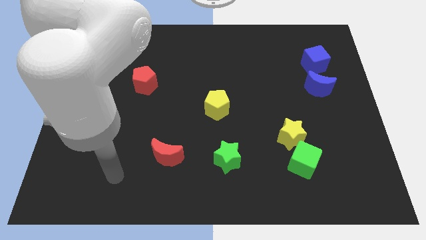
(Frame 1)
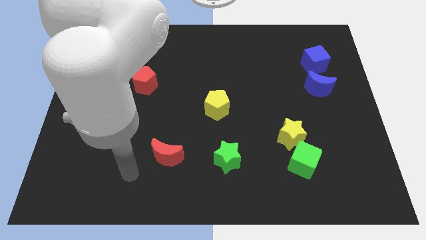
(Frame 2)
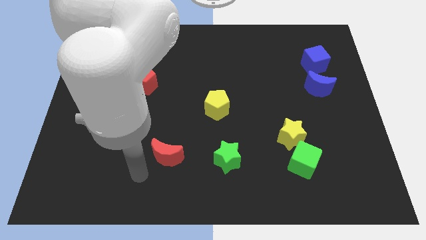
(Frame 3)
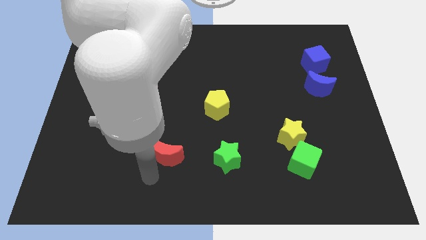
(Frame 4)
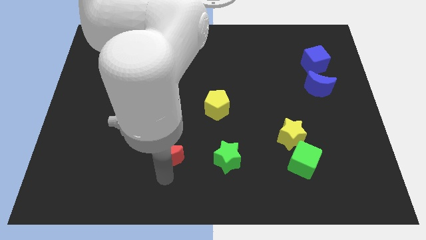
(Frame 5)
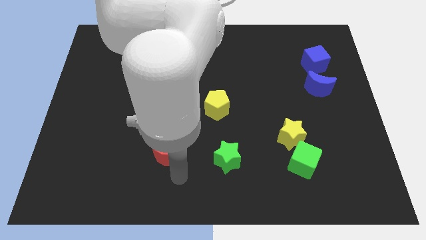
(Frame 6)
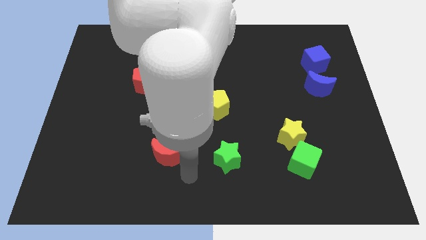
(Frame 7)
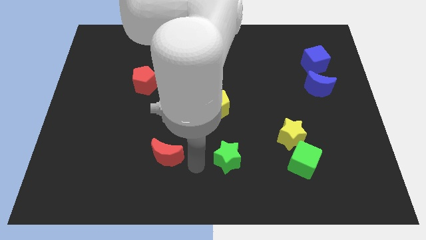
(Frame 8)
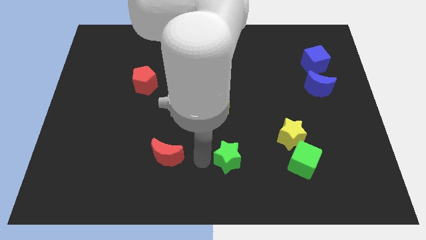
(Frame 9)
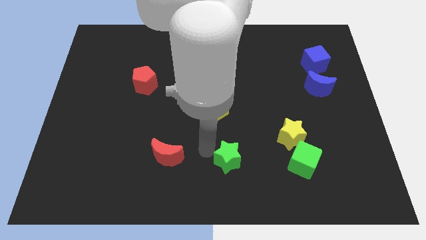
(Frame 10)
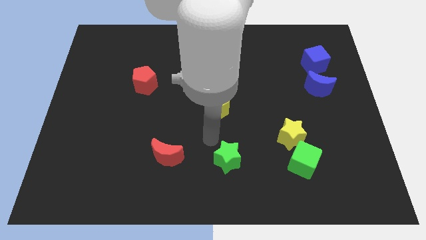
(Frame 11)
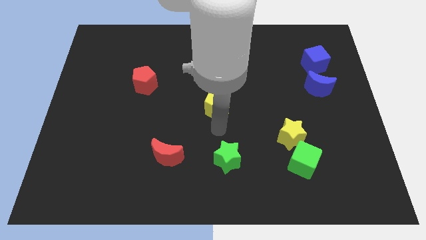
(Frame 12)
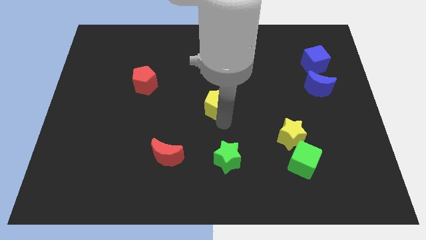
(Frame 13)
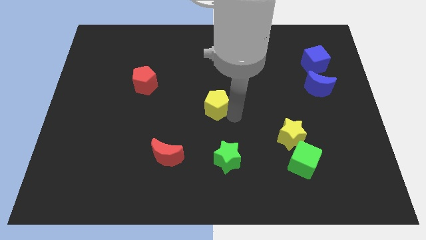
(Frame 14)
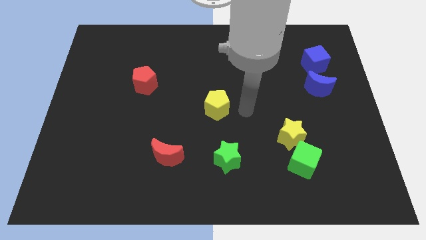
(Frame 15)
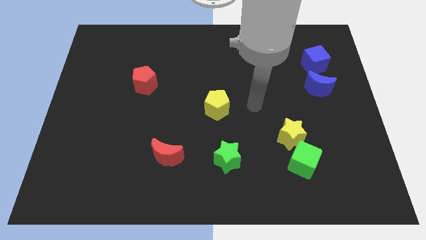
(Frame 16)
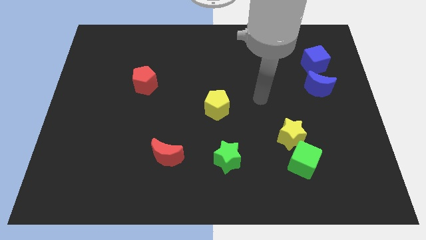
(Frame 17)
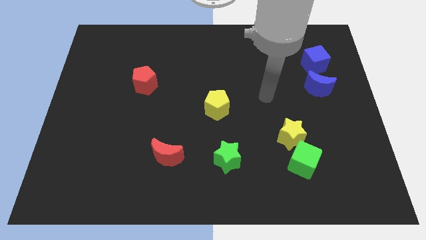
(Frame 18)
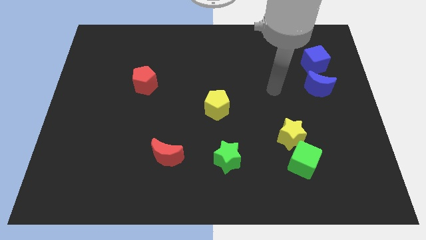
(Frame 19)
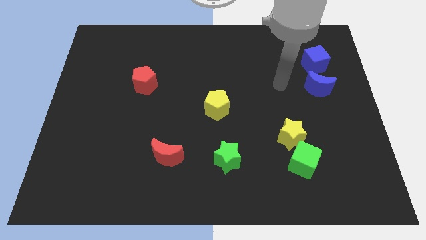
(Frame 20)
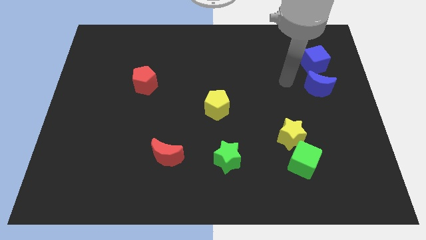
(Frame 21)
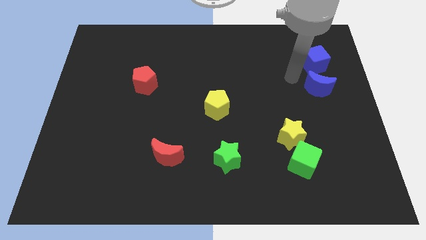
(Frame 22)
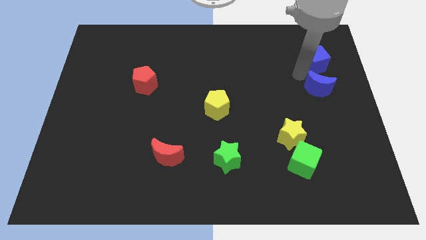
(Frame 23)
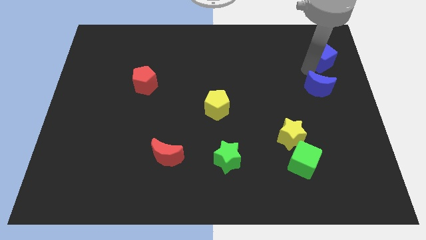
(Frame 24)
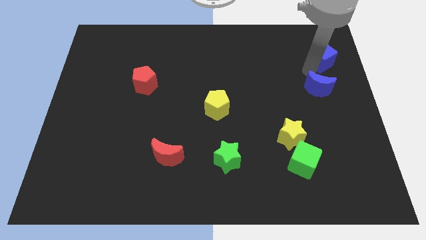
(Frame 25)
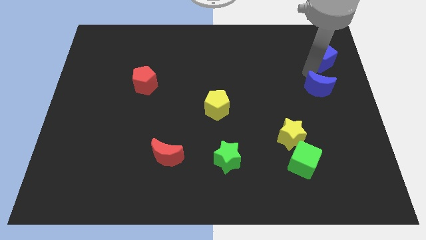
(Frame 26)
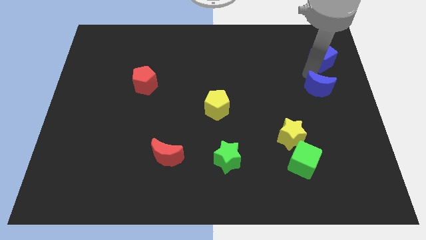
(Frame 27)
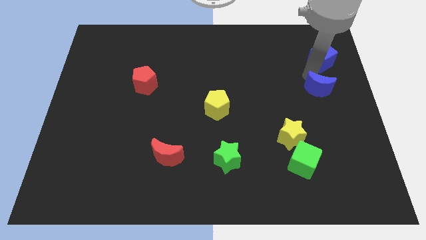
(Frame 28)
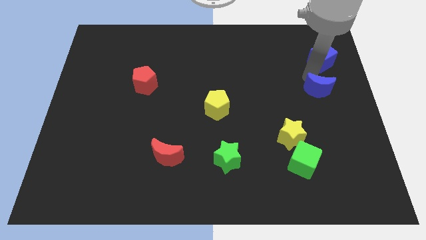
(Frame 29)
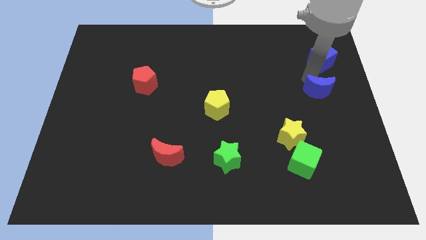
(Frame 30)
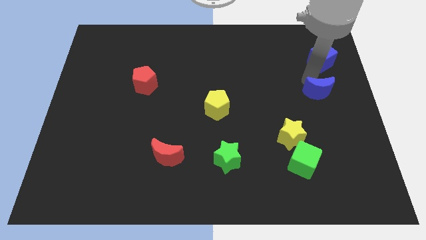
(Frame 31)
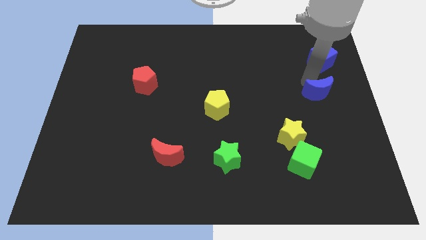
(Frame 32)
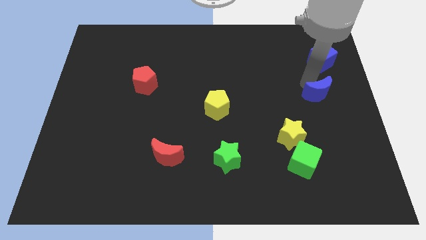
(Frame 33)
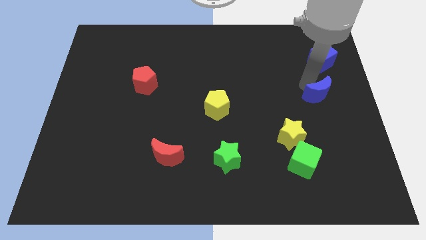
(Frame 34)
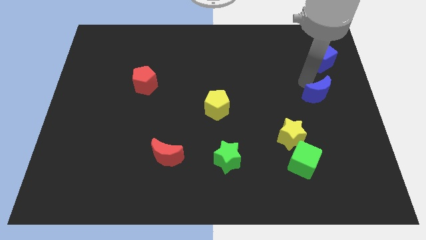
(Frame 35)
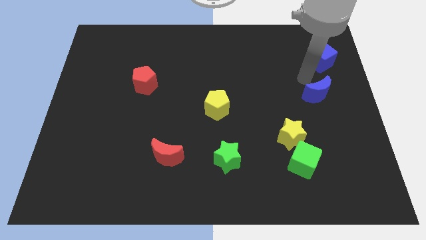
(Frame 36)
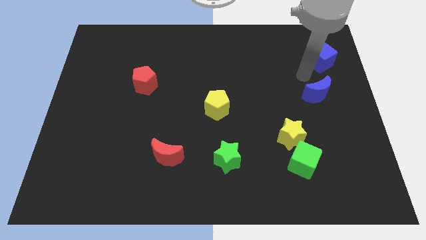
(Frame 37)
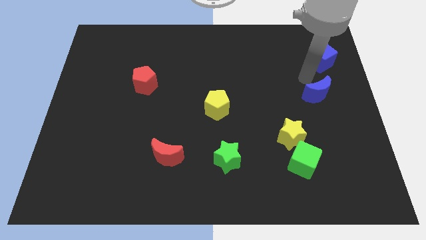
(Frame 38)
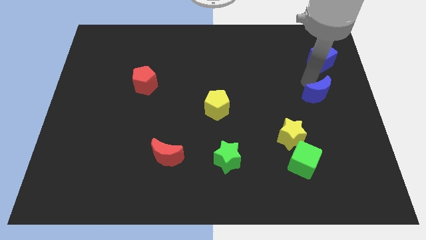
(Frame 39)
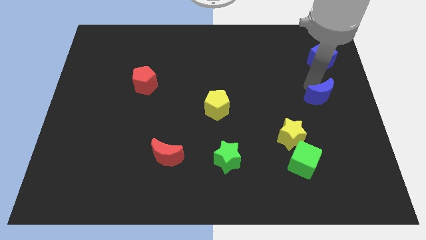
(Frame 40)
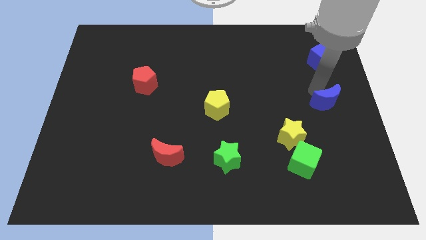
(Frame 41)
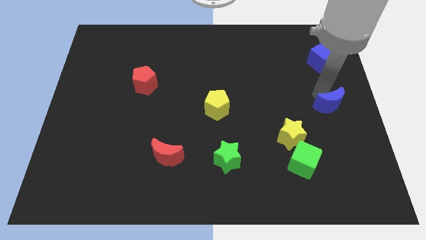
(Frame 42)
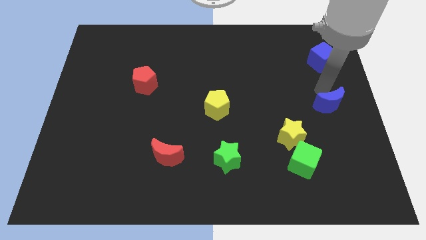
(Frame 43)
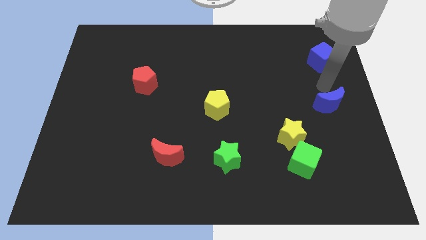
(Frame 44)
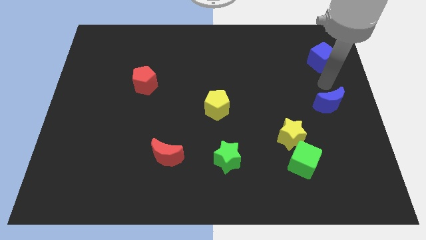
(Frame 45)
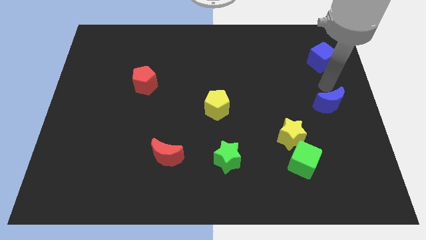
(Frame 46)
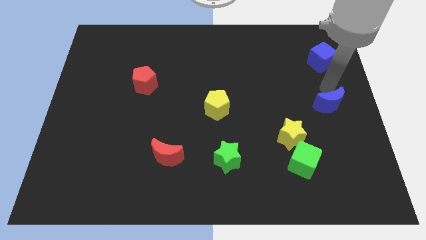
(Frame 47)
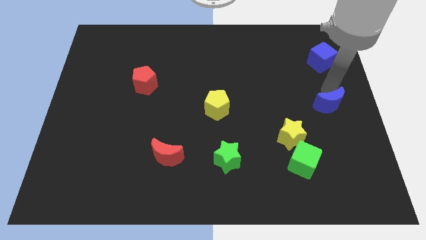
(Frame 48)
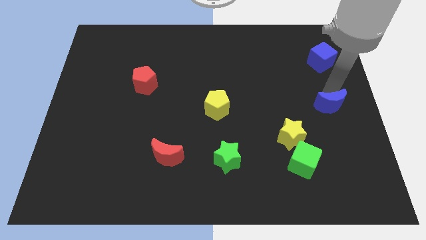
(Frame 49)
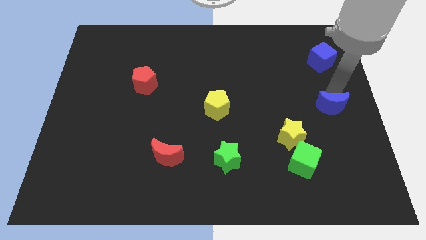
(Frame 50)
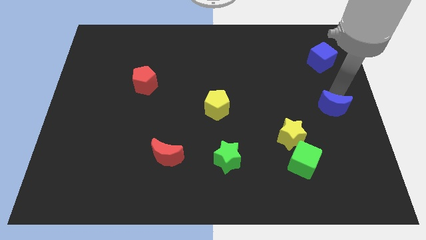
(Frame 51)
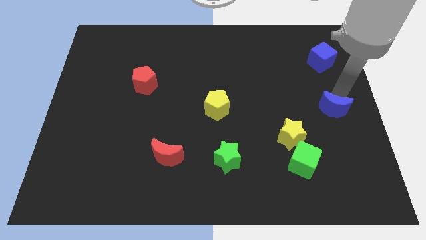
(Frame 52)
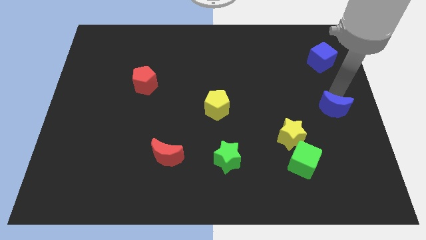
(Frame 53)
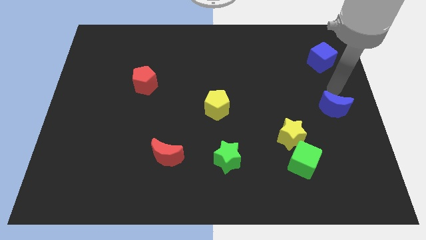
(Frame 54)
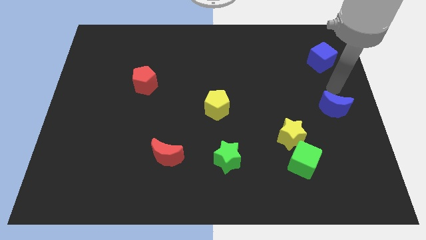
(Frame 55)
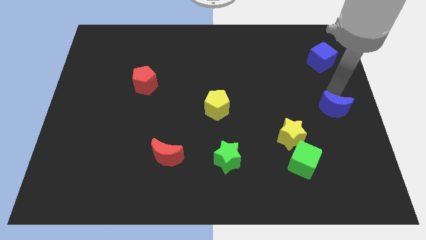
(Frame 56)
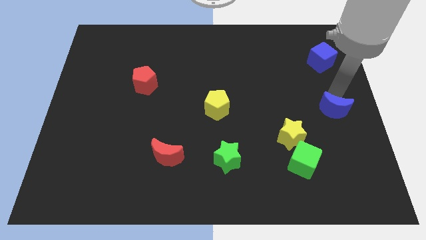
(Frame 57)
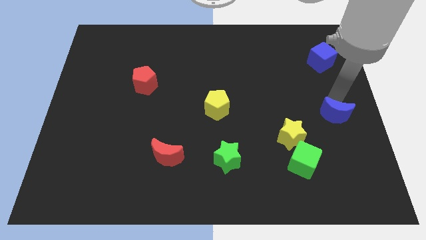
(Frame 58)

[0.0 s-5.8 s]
slide the blue moon a little down

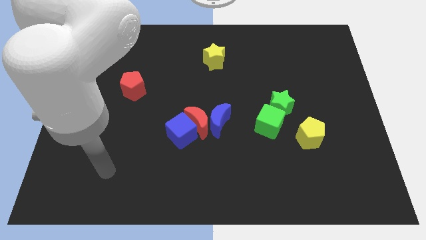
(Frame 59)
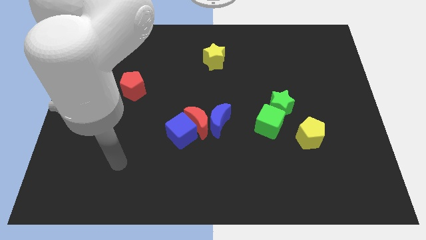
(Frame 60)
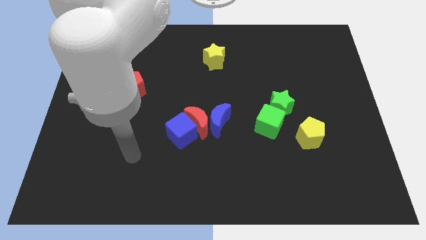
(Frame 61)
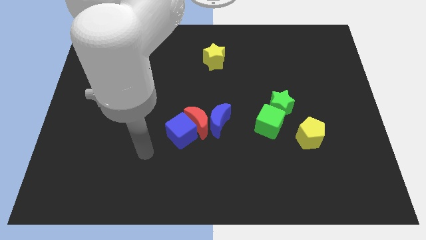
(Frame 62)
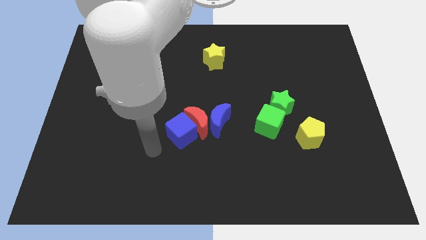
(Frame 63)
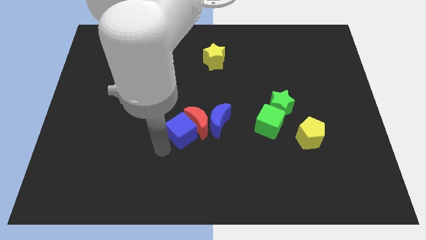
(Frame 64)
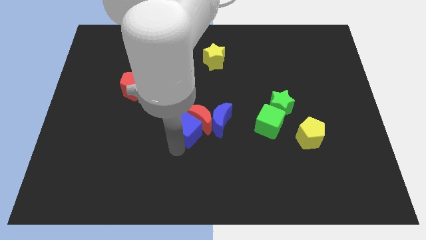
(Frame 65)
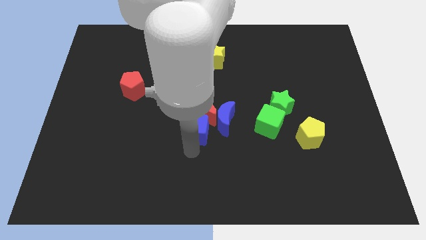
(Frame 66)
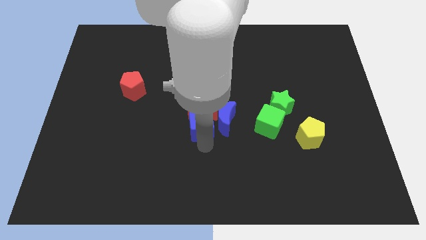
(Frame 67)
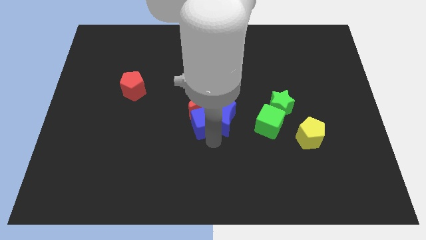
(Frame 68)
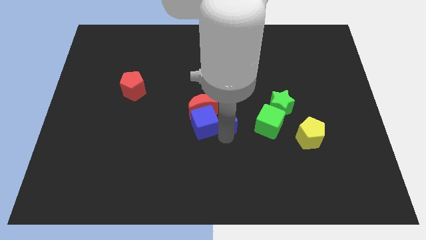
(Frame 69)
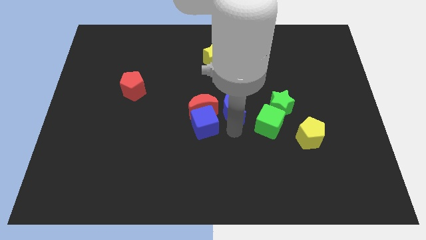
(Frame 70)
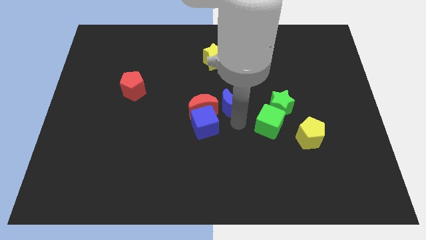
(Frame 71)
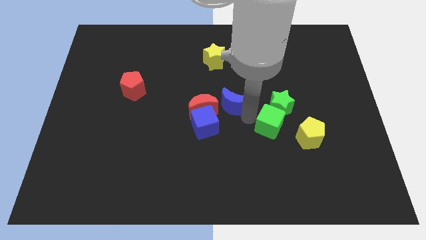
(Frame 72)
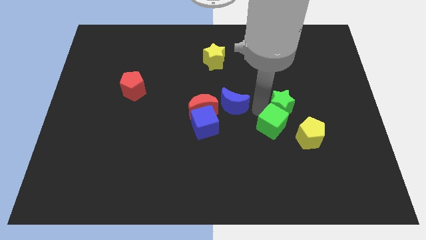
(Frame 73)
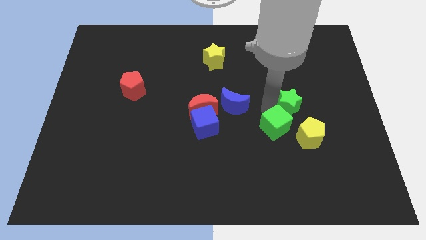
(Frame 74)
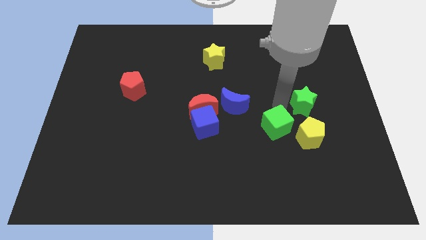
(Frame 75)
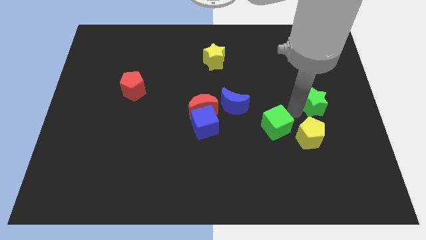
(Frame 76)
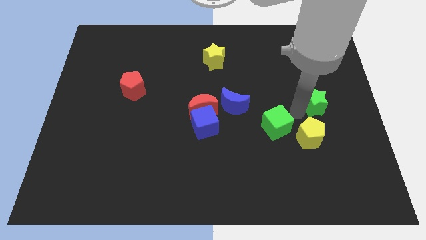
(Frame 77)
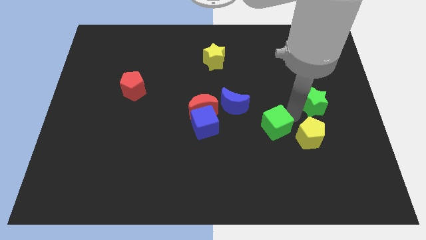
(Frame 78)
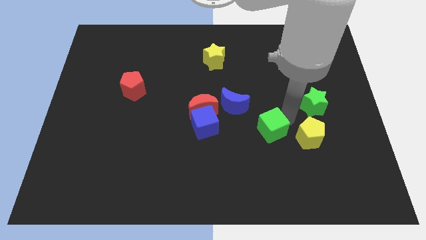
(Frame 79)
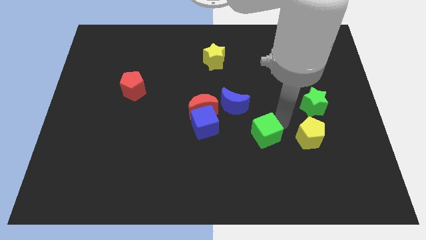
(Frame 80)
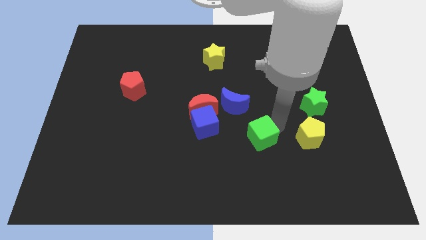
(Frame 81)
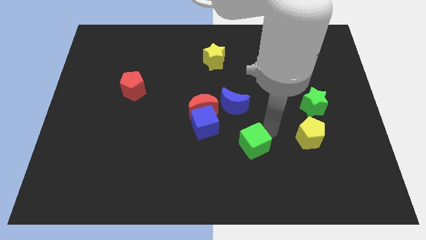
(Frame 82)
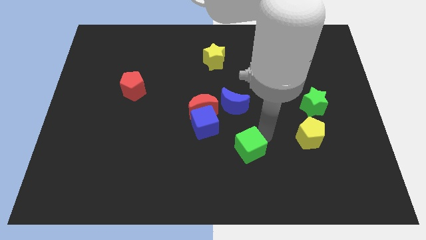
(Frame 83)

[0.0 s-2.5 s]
slide the green cube downwards and to the left a bit

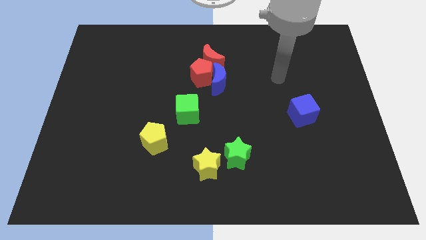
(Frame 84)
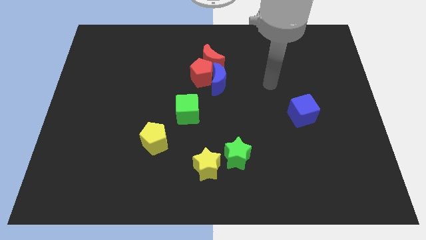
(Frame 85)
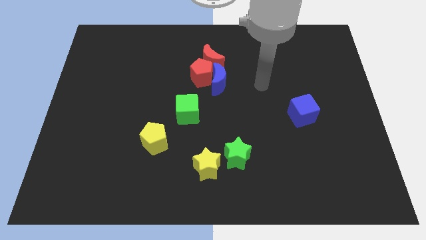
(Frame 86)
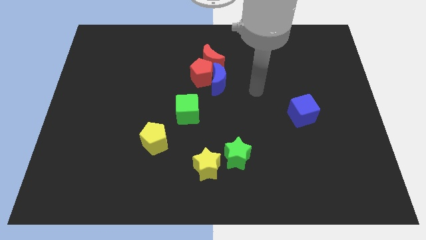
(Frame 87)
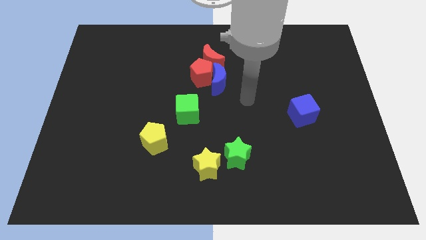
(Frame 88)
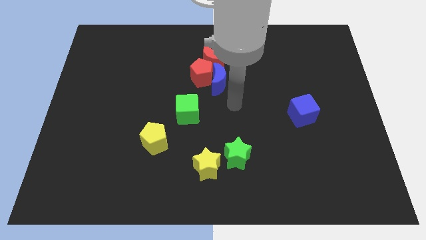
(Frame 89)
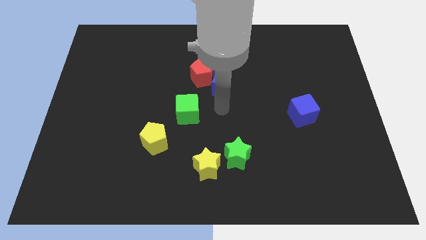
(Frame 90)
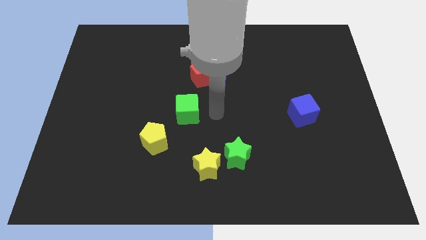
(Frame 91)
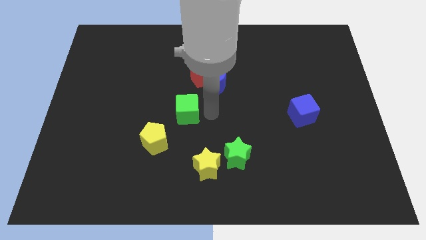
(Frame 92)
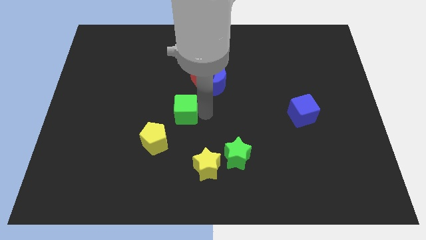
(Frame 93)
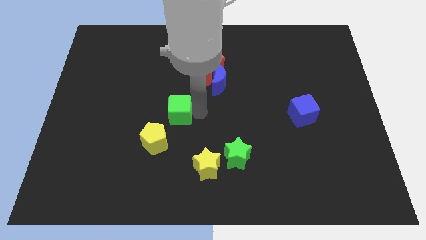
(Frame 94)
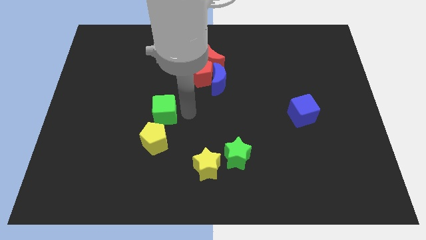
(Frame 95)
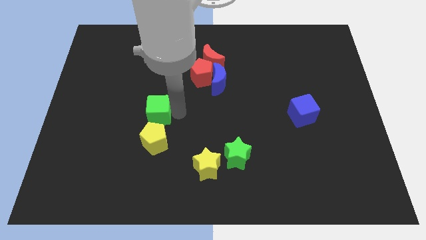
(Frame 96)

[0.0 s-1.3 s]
slightly push the green cube to the left
